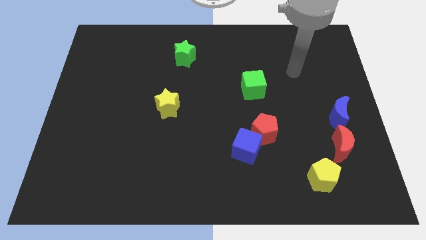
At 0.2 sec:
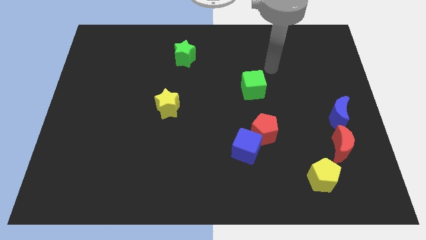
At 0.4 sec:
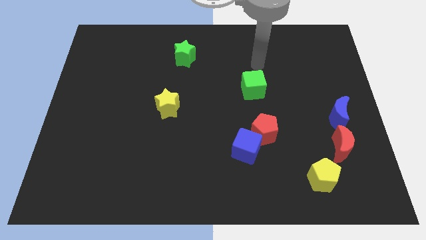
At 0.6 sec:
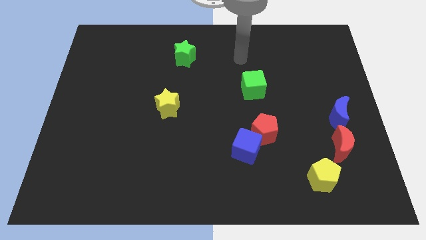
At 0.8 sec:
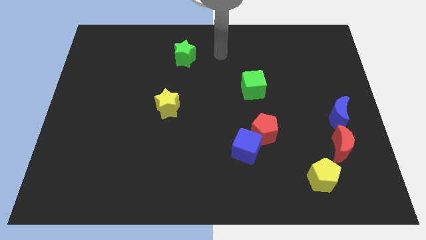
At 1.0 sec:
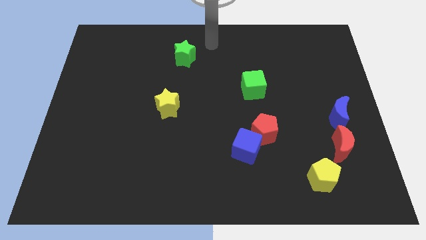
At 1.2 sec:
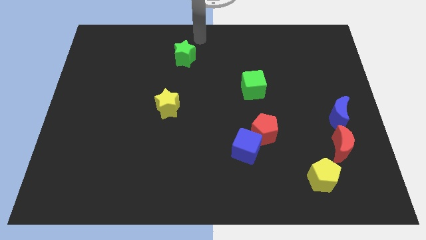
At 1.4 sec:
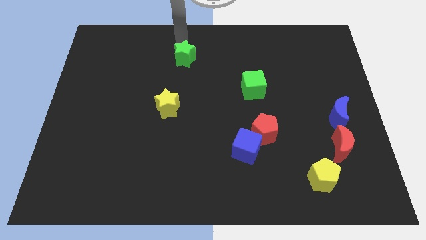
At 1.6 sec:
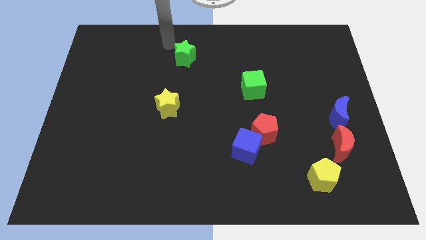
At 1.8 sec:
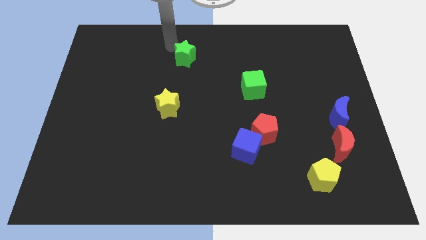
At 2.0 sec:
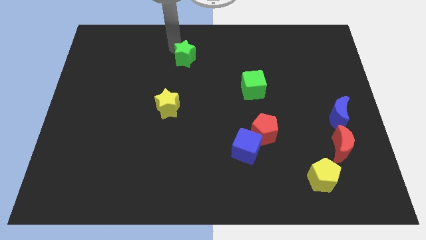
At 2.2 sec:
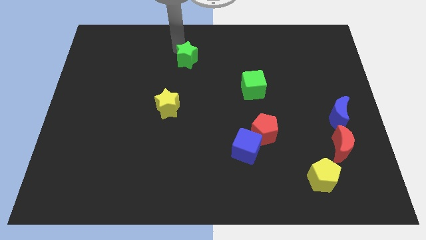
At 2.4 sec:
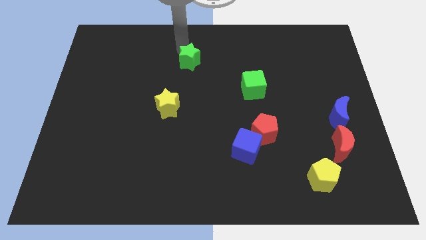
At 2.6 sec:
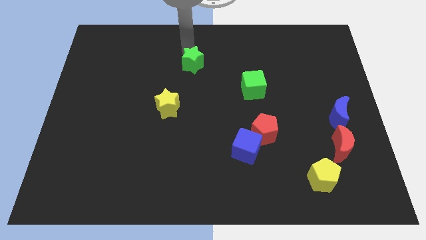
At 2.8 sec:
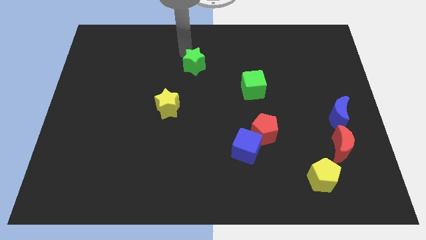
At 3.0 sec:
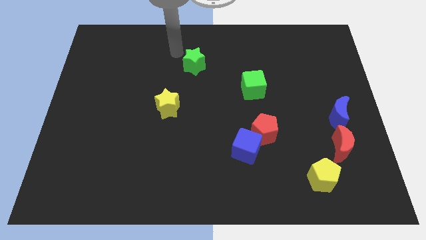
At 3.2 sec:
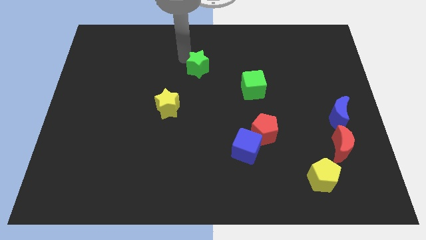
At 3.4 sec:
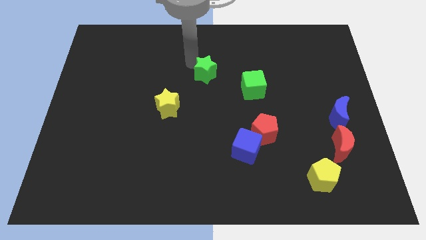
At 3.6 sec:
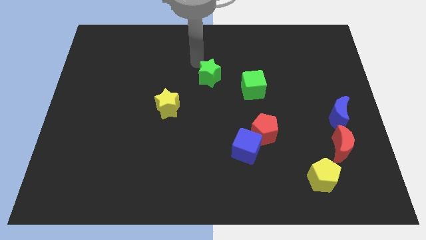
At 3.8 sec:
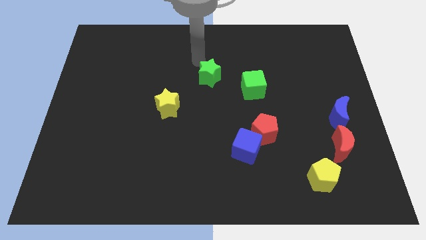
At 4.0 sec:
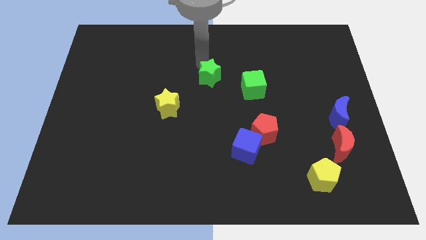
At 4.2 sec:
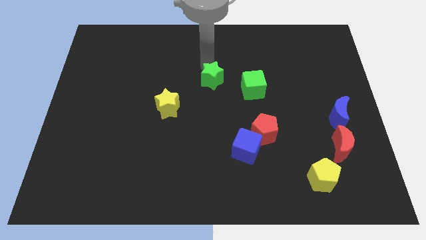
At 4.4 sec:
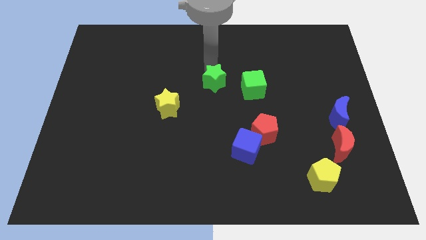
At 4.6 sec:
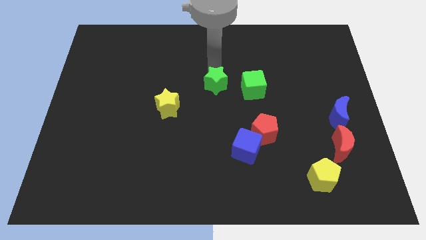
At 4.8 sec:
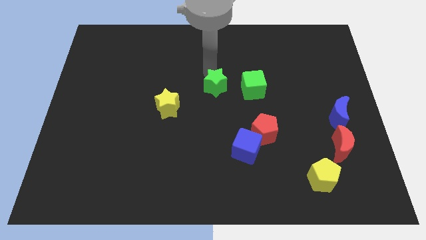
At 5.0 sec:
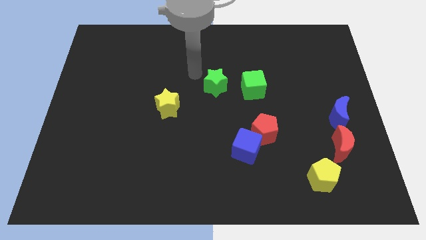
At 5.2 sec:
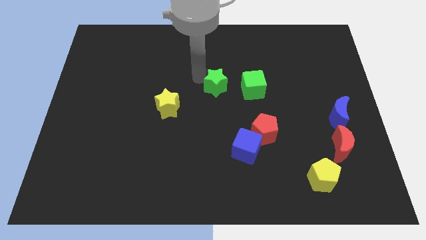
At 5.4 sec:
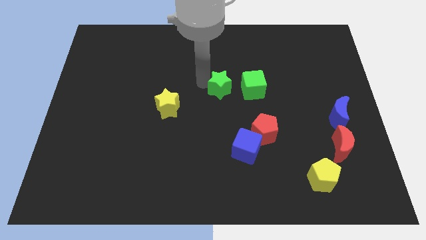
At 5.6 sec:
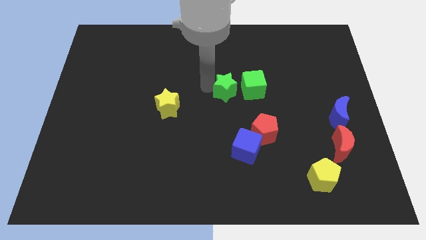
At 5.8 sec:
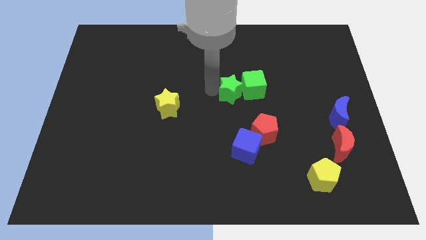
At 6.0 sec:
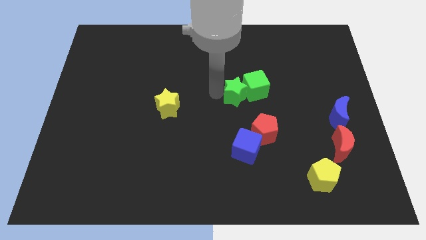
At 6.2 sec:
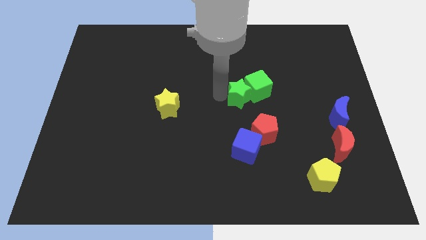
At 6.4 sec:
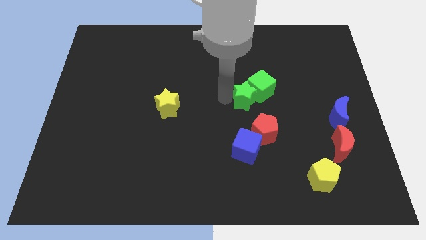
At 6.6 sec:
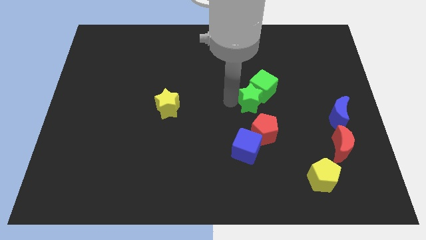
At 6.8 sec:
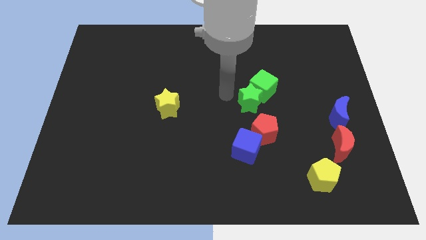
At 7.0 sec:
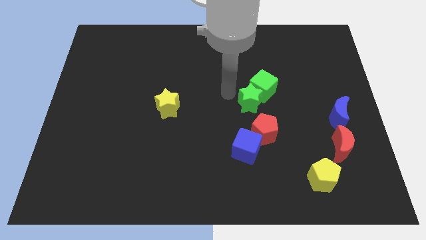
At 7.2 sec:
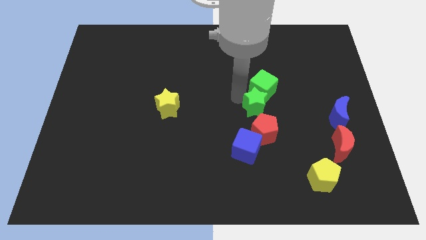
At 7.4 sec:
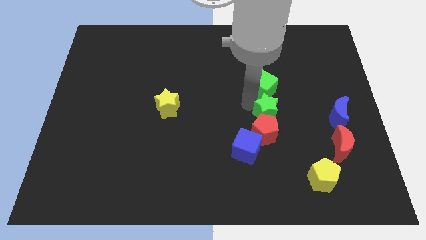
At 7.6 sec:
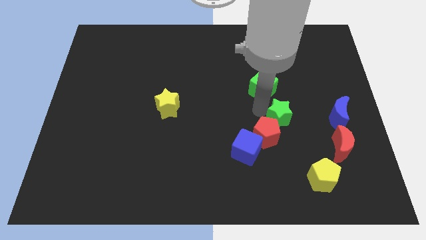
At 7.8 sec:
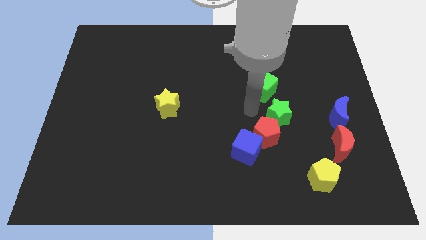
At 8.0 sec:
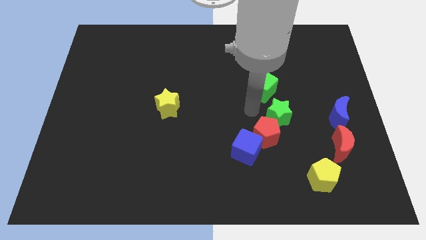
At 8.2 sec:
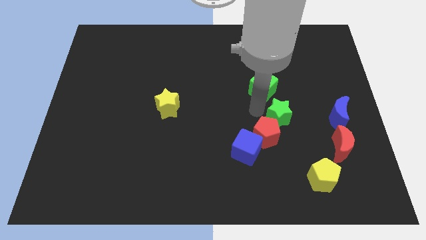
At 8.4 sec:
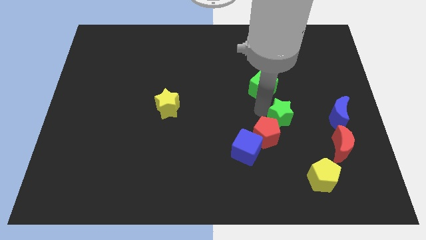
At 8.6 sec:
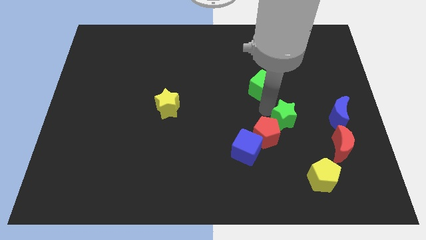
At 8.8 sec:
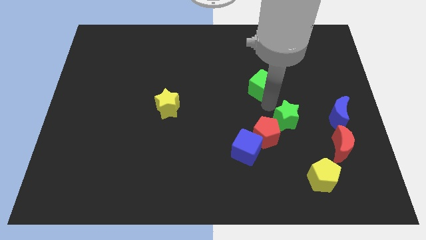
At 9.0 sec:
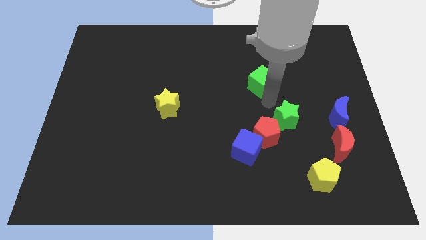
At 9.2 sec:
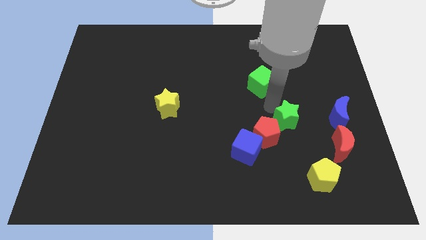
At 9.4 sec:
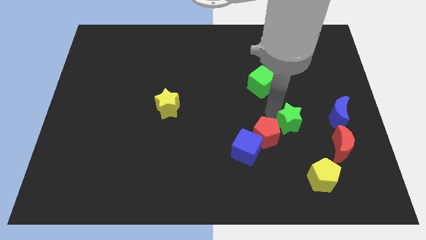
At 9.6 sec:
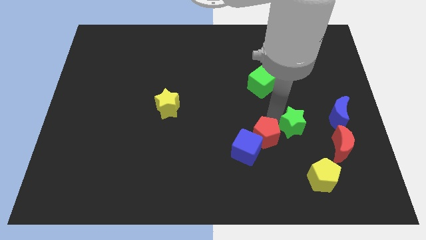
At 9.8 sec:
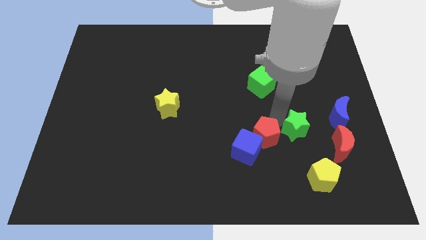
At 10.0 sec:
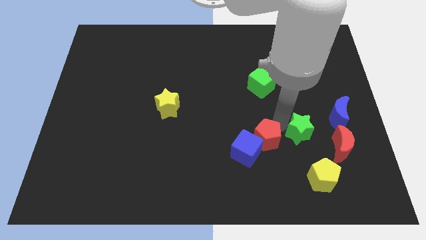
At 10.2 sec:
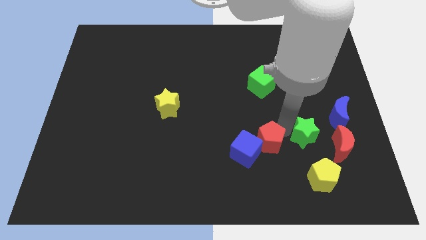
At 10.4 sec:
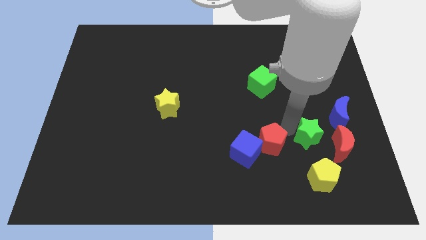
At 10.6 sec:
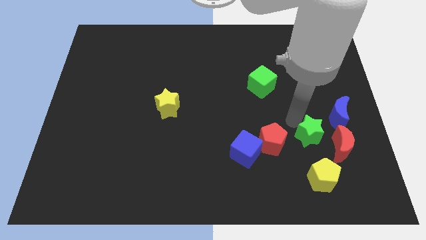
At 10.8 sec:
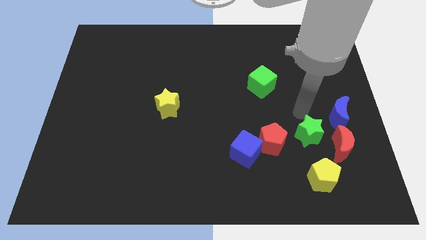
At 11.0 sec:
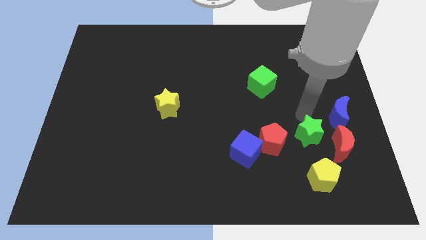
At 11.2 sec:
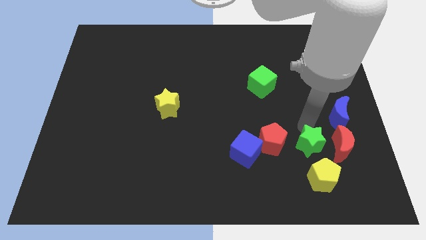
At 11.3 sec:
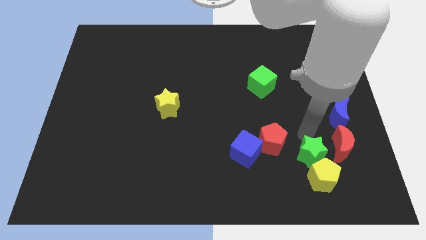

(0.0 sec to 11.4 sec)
slide the green star next to the yellow pentagon
